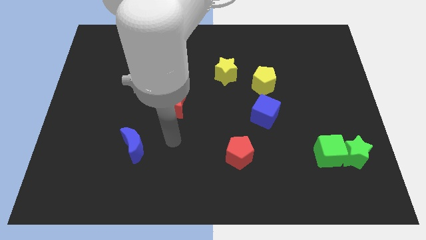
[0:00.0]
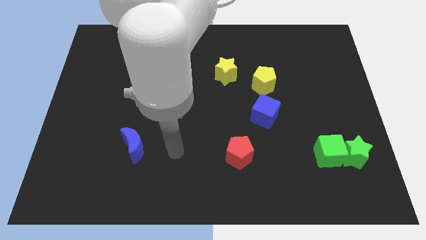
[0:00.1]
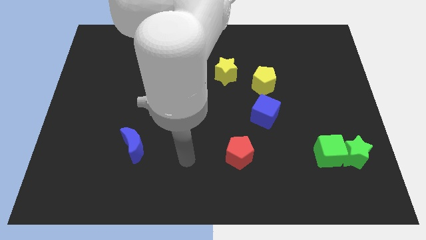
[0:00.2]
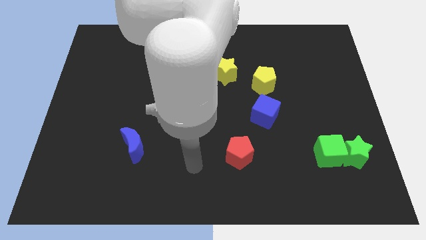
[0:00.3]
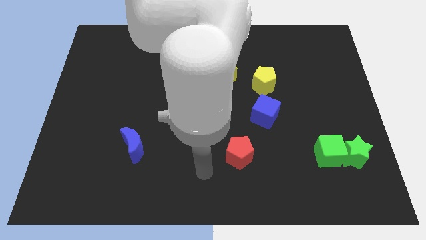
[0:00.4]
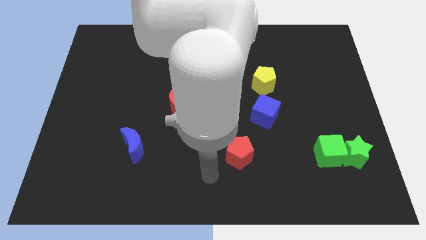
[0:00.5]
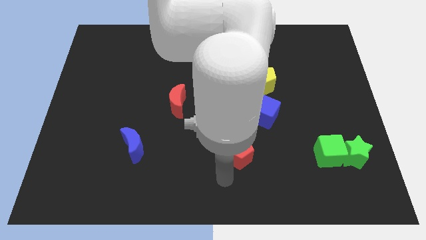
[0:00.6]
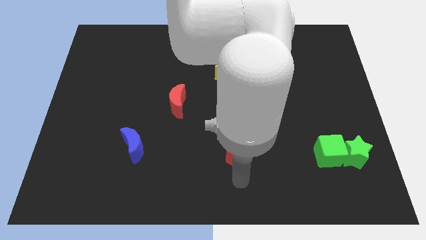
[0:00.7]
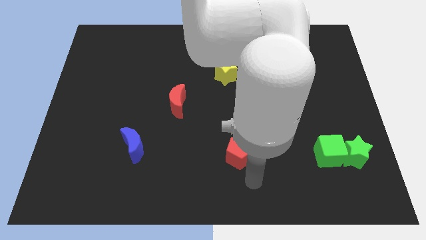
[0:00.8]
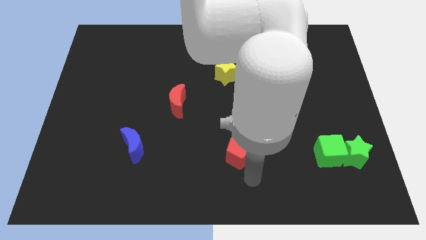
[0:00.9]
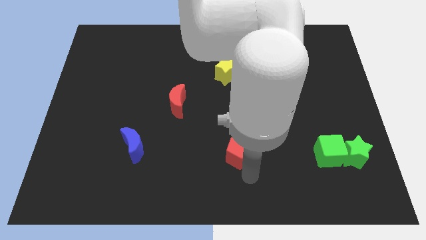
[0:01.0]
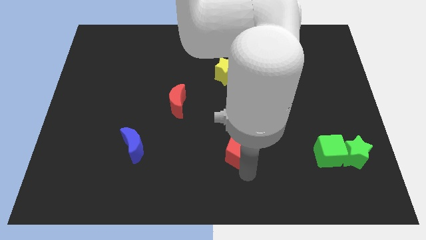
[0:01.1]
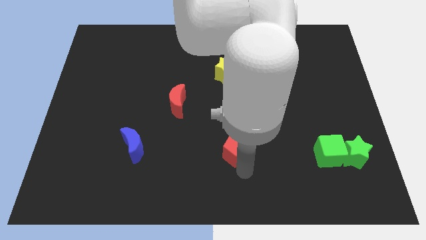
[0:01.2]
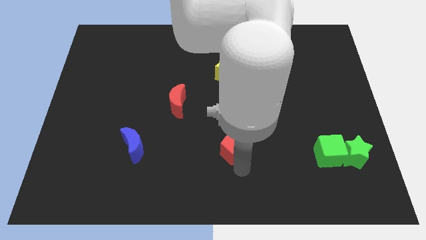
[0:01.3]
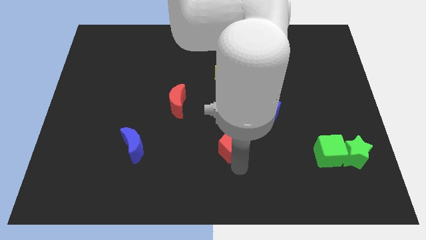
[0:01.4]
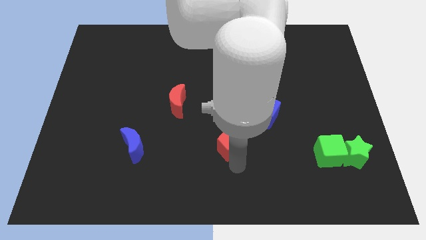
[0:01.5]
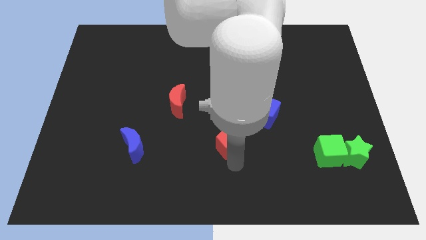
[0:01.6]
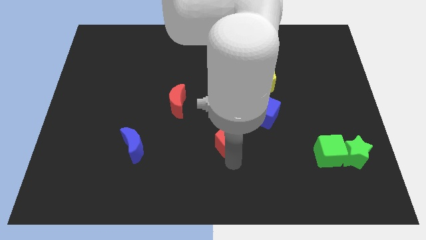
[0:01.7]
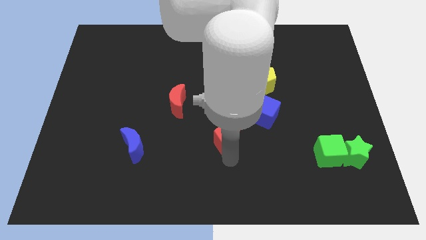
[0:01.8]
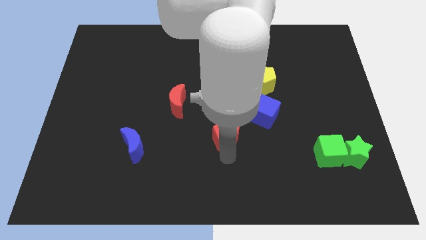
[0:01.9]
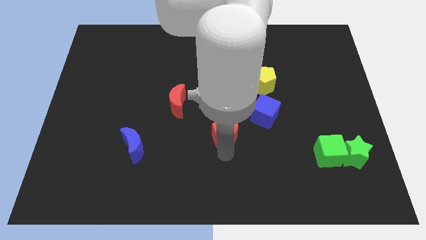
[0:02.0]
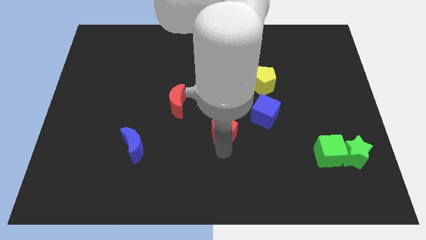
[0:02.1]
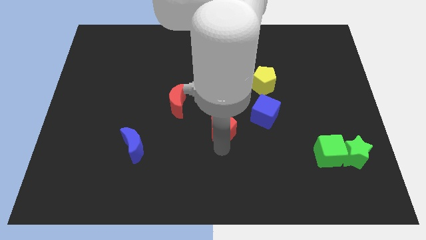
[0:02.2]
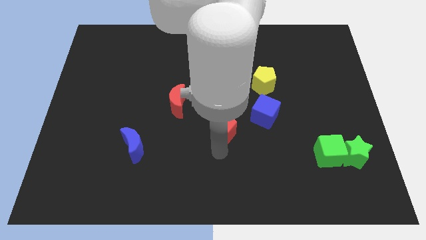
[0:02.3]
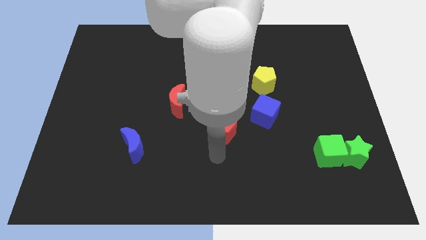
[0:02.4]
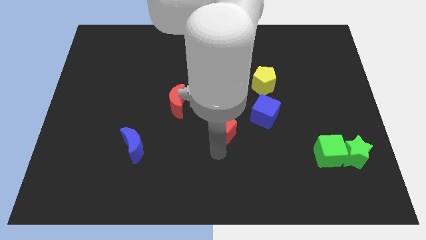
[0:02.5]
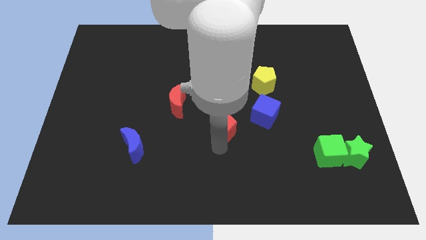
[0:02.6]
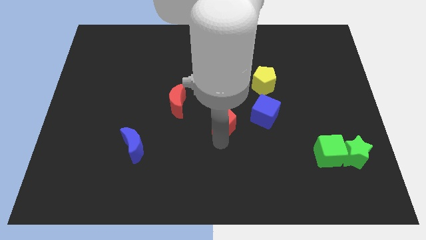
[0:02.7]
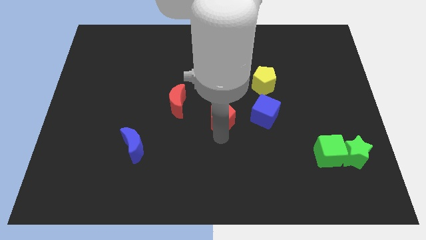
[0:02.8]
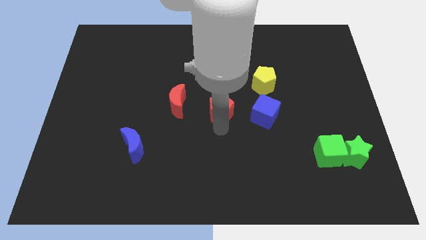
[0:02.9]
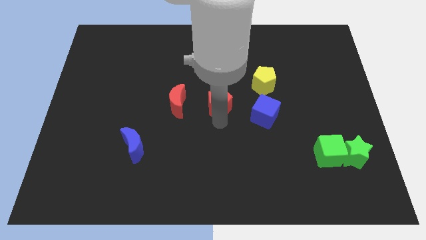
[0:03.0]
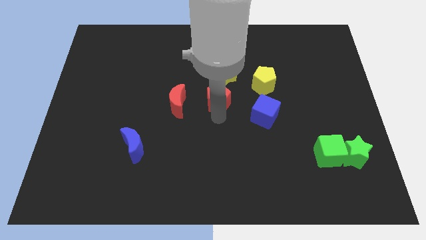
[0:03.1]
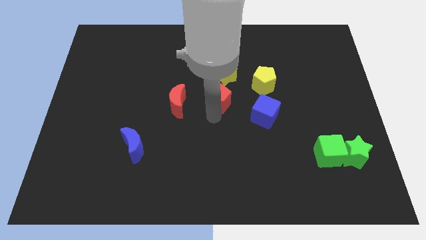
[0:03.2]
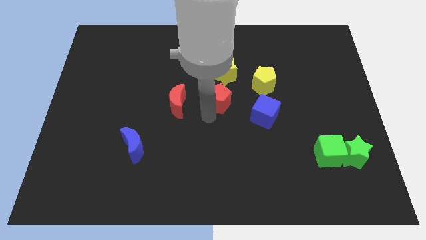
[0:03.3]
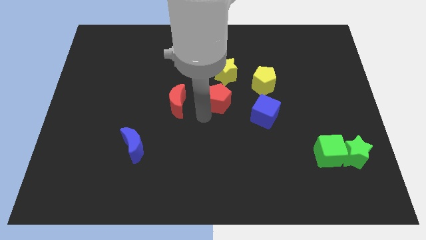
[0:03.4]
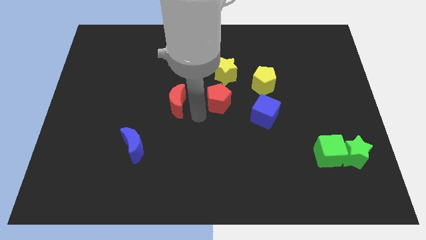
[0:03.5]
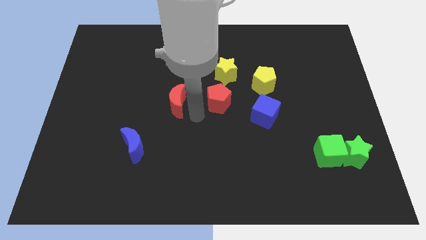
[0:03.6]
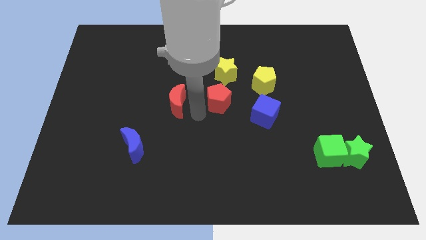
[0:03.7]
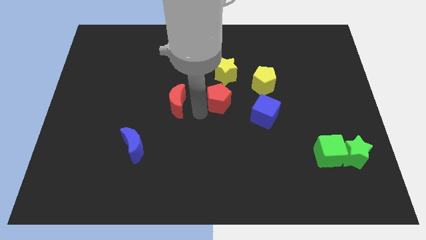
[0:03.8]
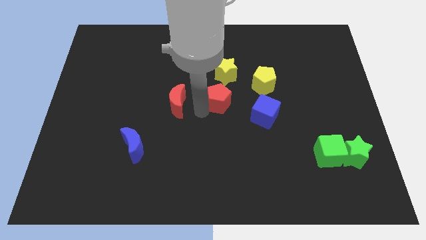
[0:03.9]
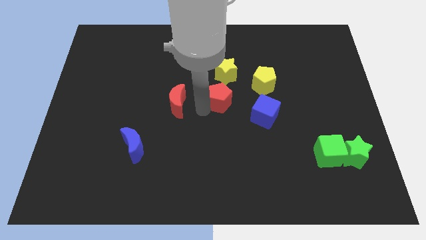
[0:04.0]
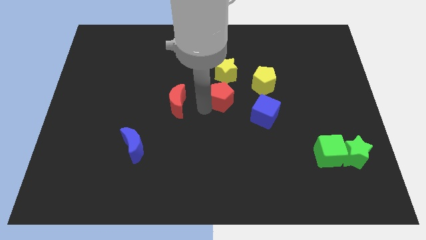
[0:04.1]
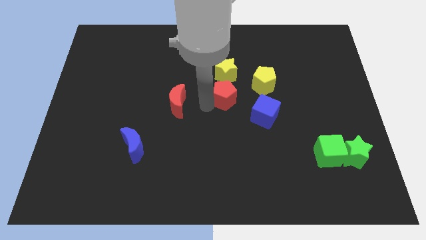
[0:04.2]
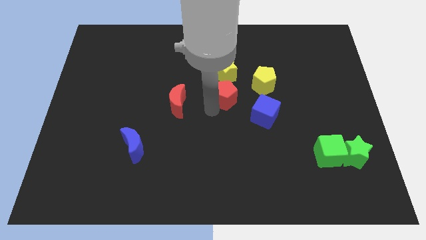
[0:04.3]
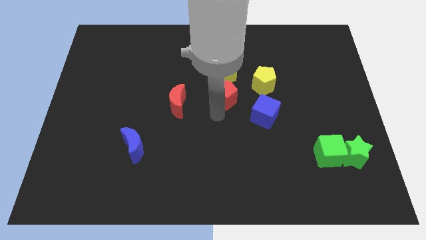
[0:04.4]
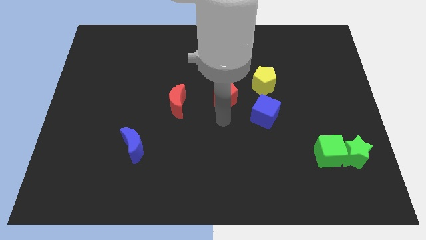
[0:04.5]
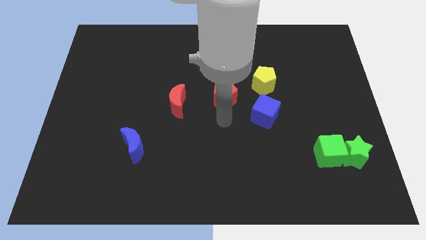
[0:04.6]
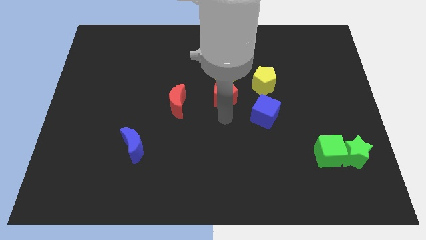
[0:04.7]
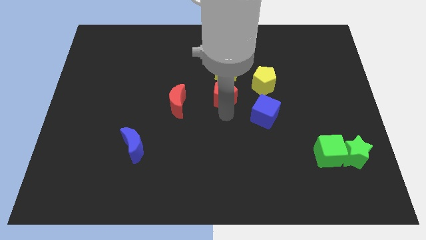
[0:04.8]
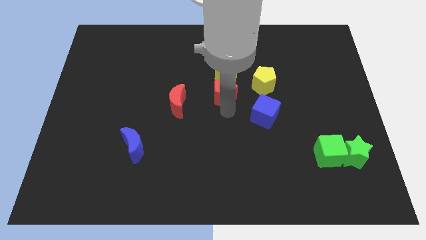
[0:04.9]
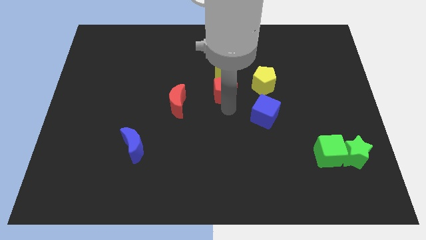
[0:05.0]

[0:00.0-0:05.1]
move the red pentagon to the yellow star

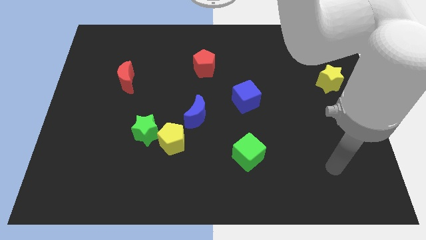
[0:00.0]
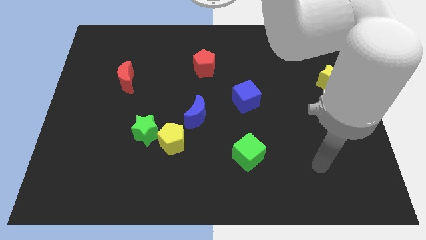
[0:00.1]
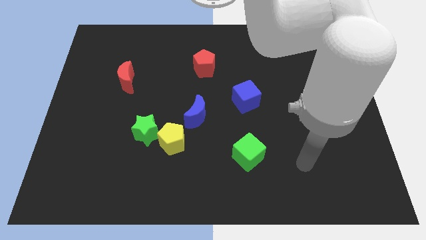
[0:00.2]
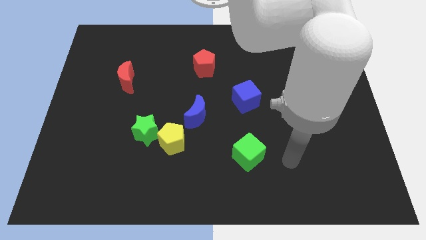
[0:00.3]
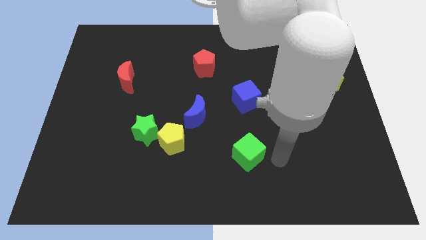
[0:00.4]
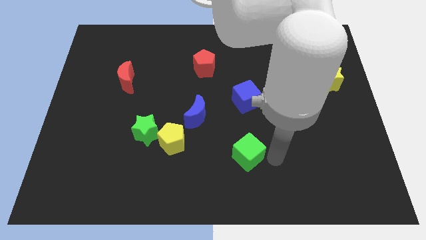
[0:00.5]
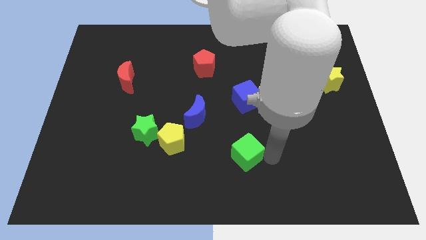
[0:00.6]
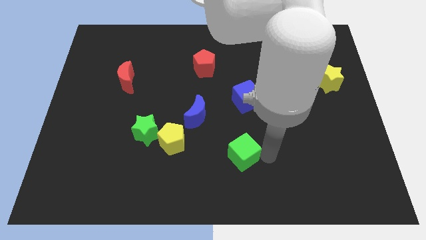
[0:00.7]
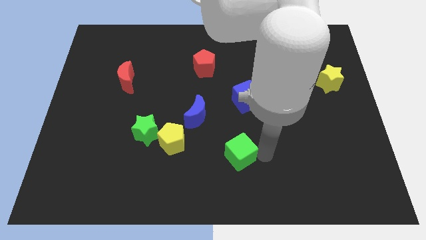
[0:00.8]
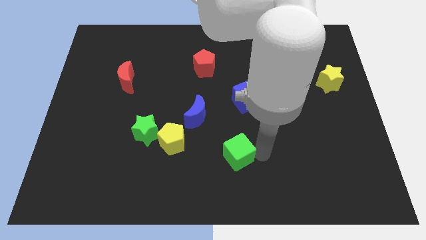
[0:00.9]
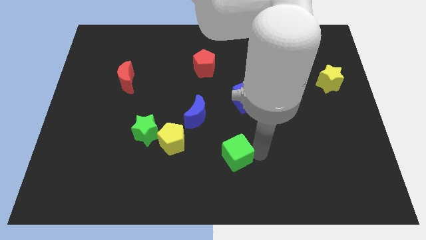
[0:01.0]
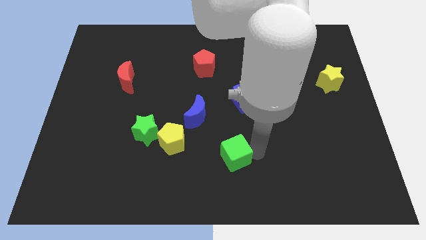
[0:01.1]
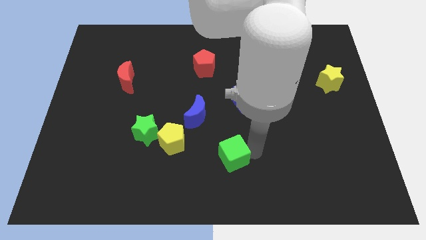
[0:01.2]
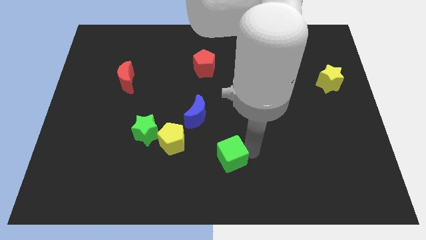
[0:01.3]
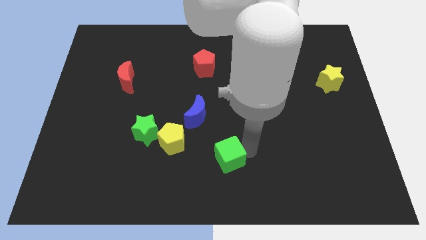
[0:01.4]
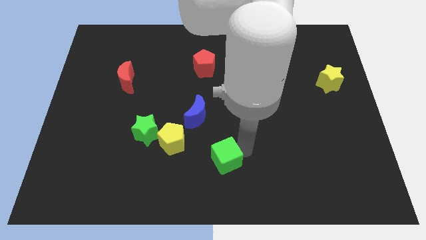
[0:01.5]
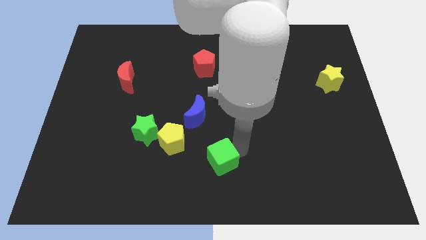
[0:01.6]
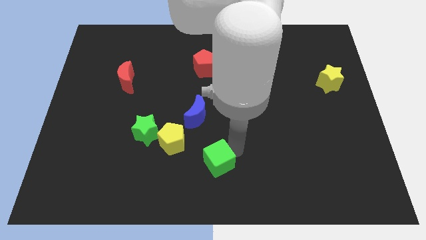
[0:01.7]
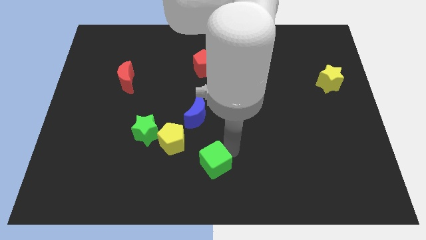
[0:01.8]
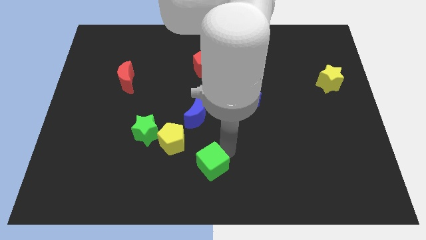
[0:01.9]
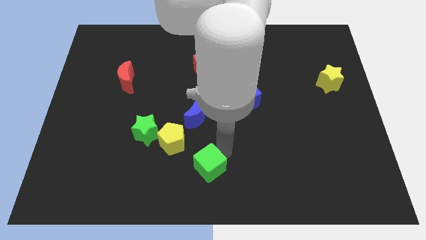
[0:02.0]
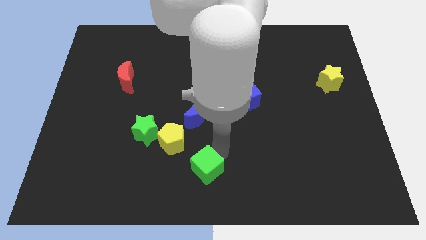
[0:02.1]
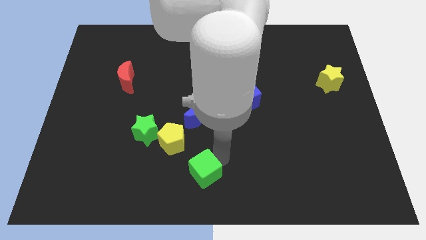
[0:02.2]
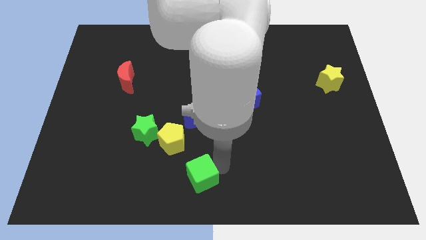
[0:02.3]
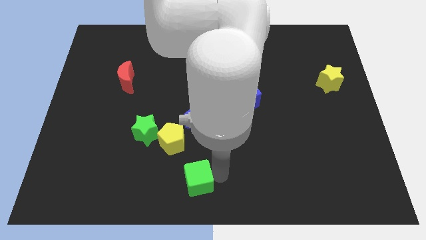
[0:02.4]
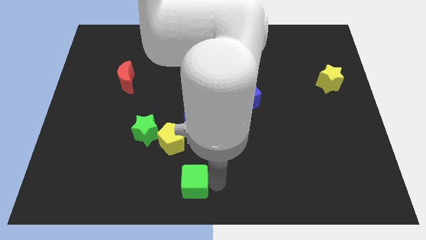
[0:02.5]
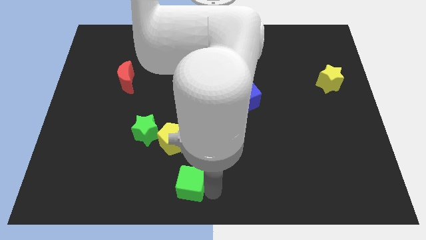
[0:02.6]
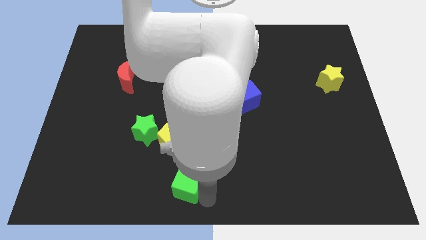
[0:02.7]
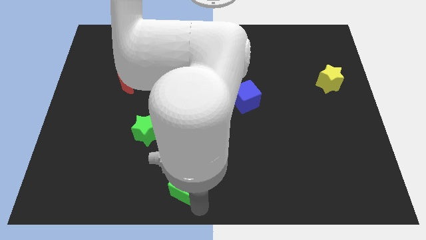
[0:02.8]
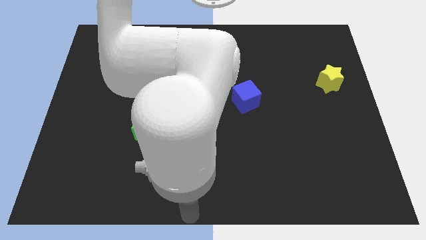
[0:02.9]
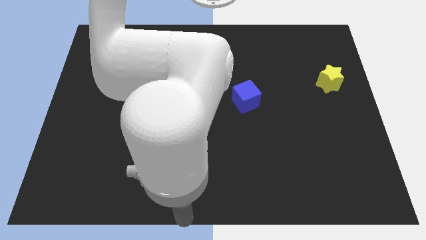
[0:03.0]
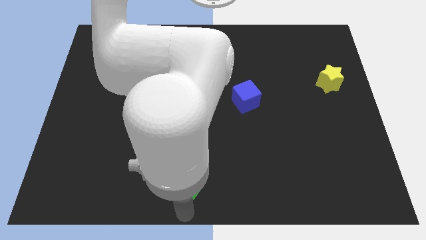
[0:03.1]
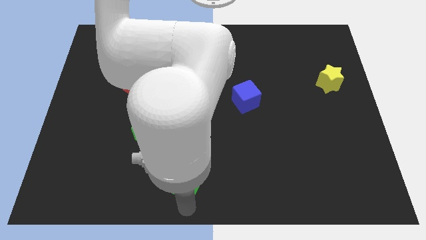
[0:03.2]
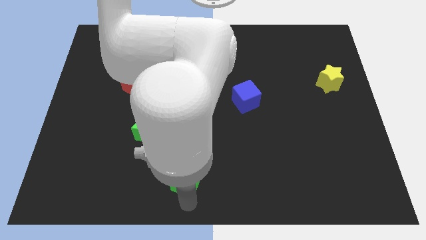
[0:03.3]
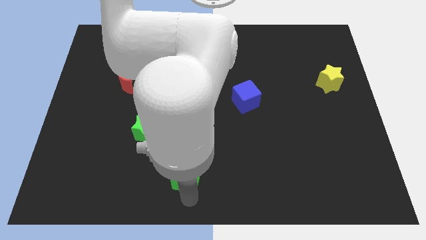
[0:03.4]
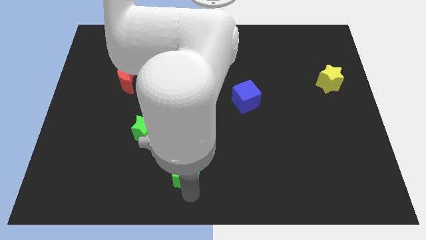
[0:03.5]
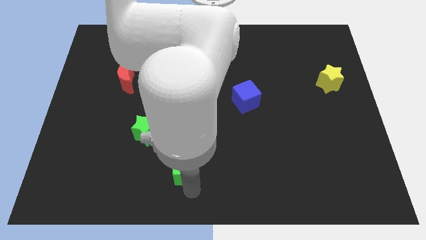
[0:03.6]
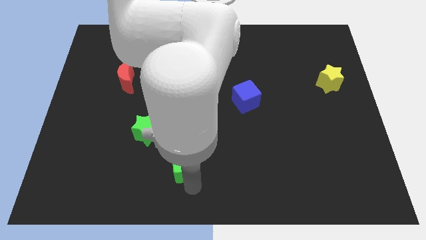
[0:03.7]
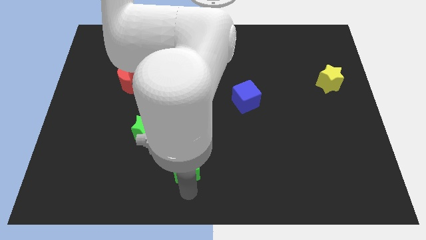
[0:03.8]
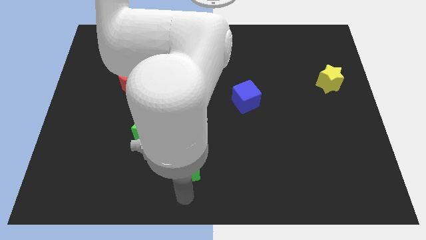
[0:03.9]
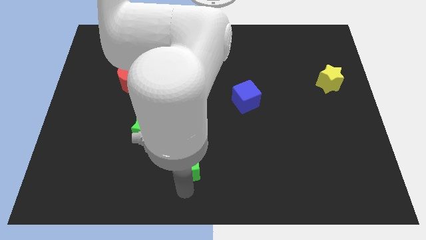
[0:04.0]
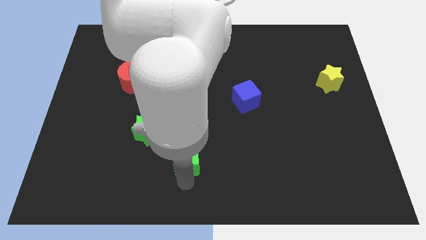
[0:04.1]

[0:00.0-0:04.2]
move the green cube next to the yellow pentagon
